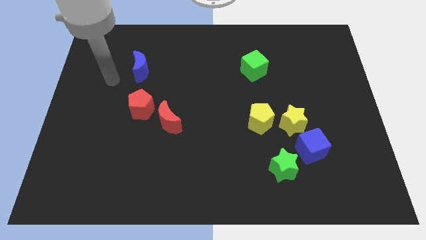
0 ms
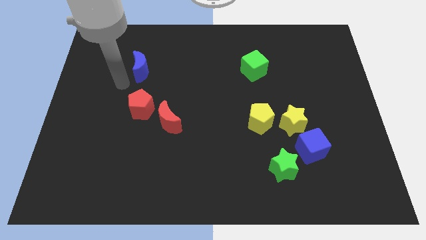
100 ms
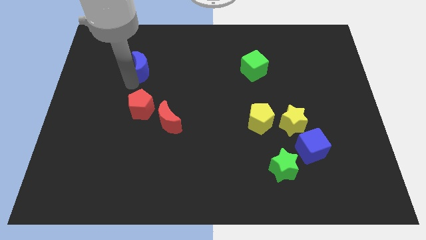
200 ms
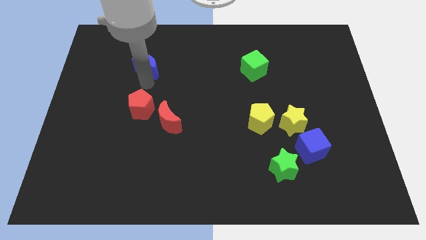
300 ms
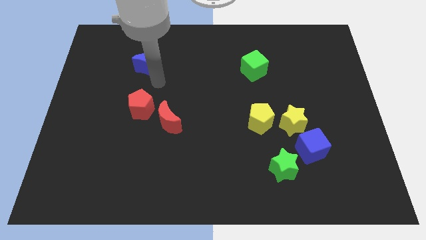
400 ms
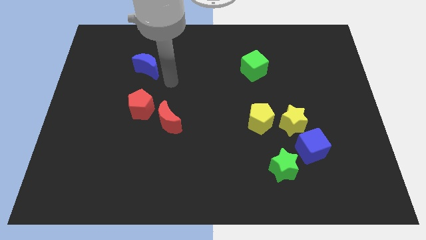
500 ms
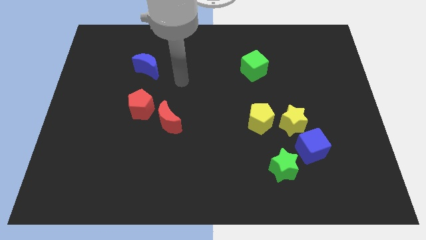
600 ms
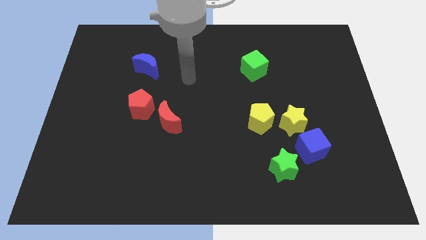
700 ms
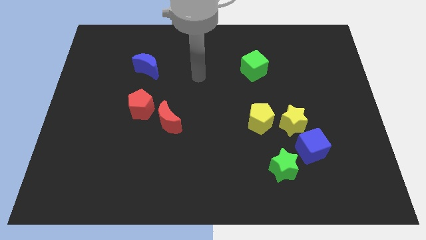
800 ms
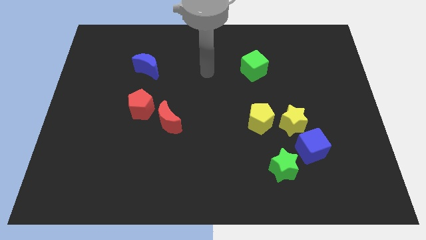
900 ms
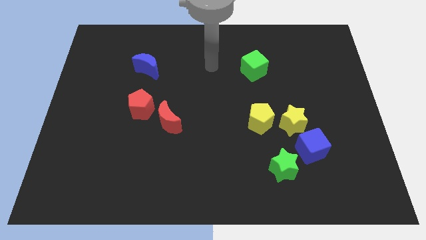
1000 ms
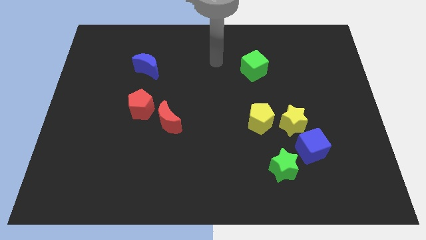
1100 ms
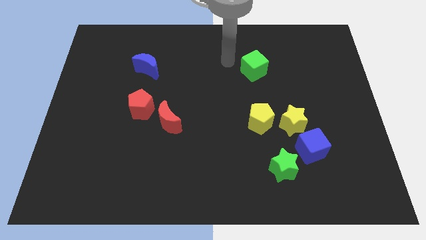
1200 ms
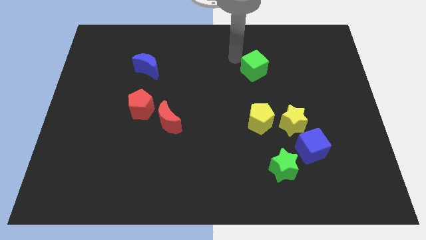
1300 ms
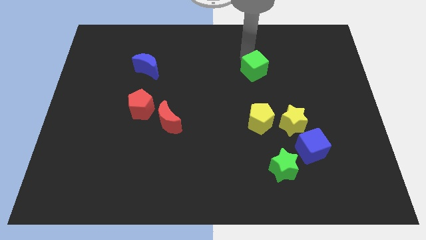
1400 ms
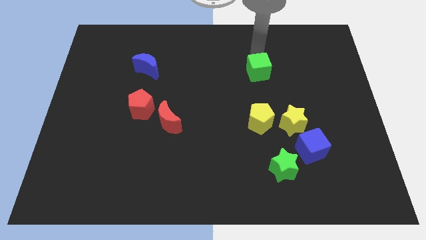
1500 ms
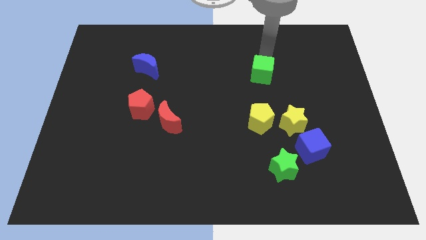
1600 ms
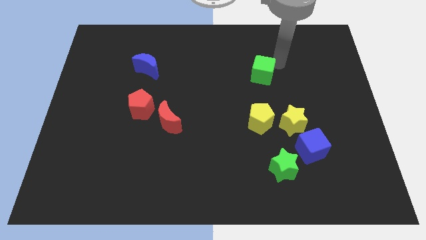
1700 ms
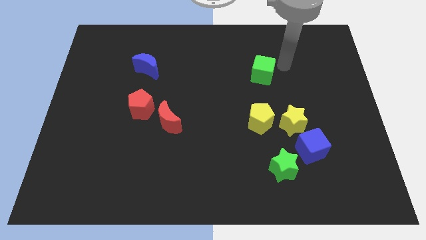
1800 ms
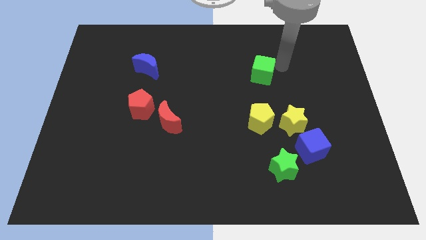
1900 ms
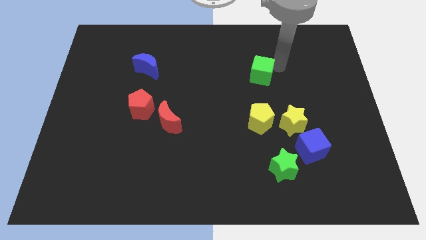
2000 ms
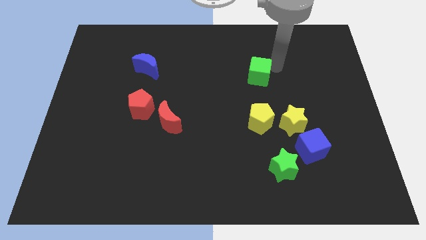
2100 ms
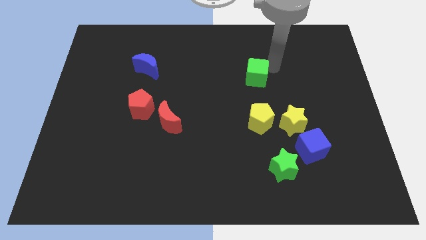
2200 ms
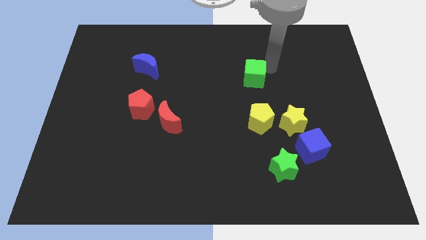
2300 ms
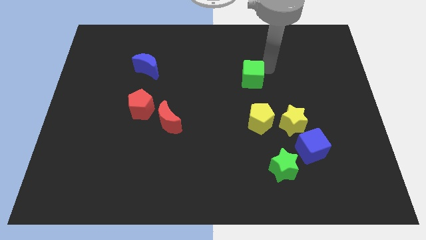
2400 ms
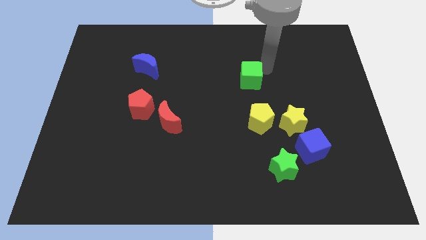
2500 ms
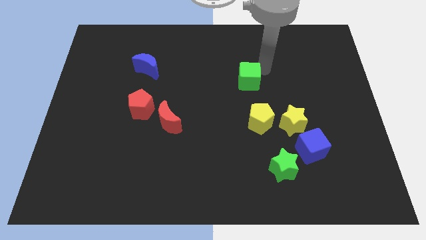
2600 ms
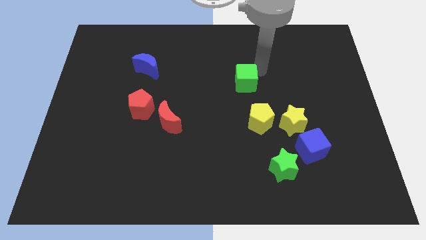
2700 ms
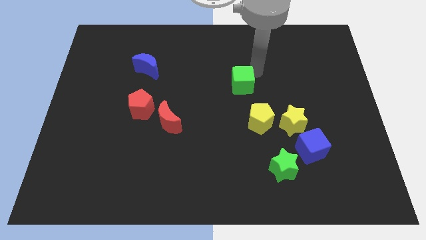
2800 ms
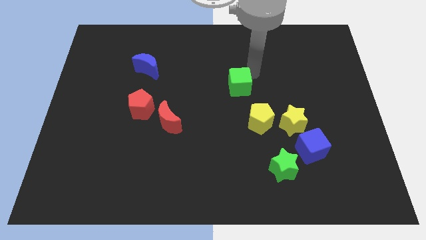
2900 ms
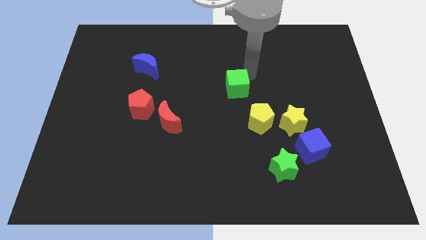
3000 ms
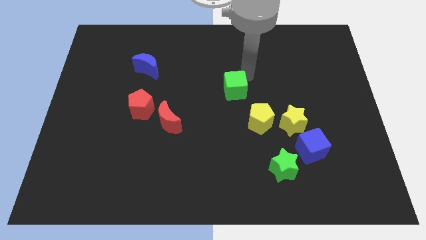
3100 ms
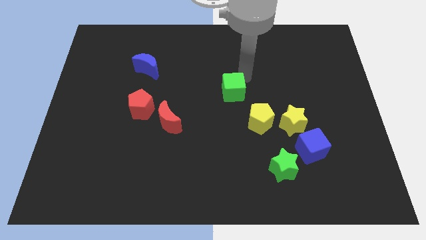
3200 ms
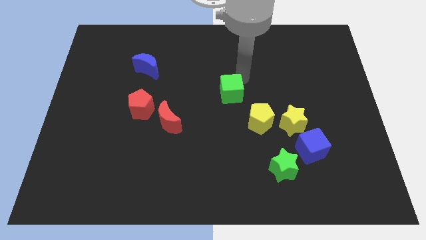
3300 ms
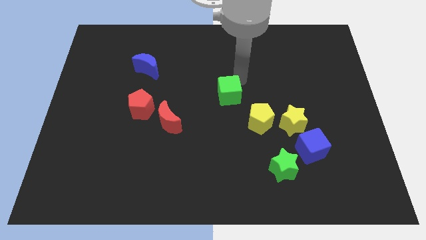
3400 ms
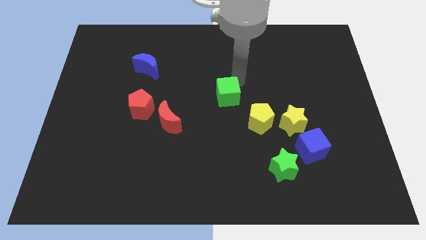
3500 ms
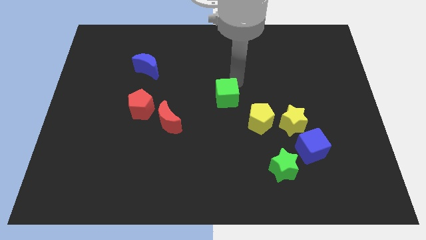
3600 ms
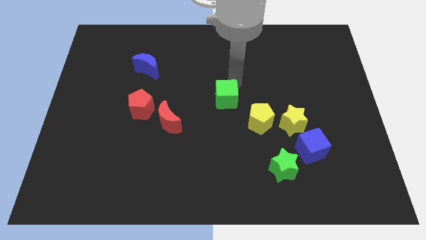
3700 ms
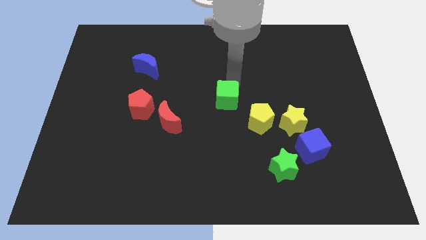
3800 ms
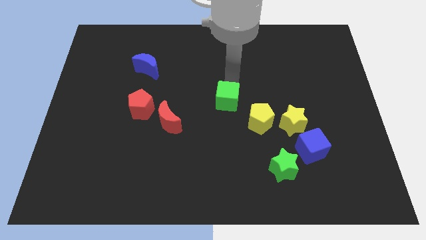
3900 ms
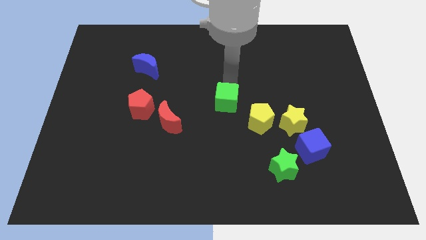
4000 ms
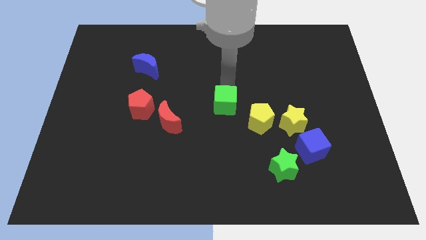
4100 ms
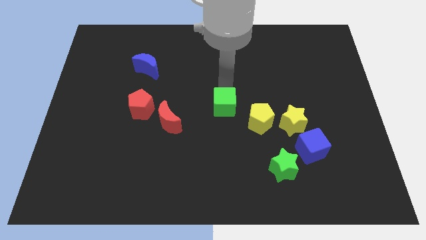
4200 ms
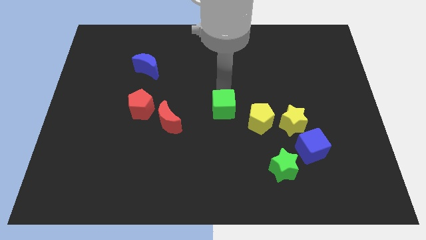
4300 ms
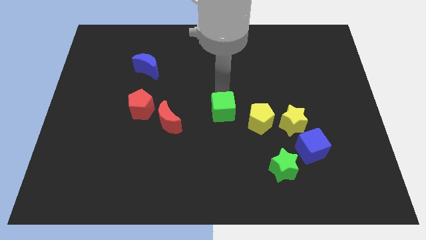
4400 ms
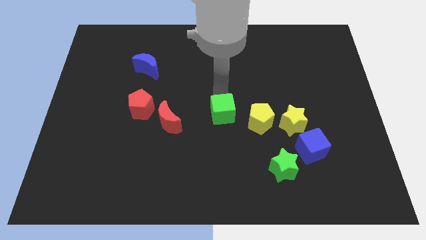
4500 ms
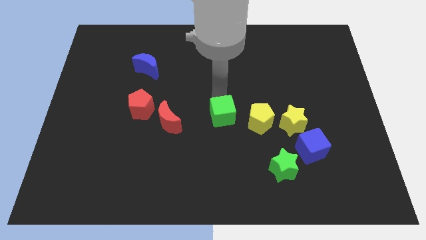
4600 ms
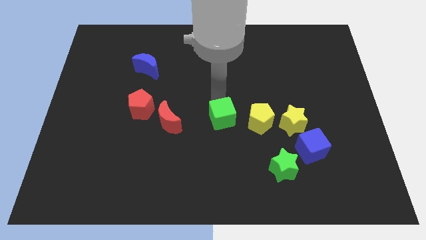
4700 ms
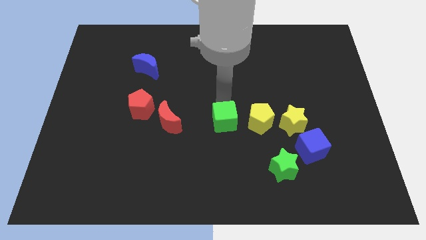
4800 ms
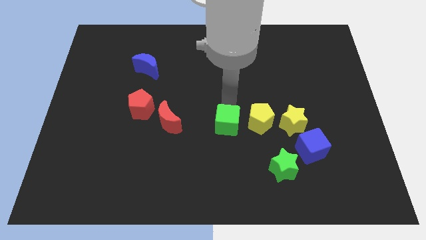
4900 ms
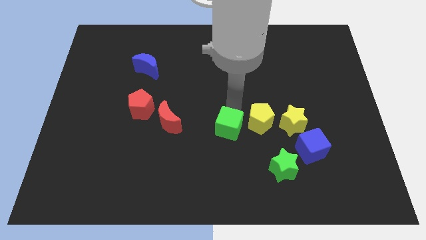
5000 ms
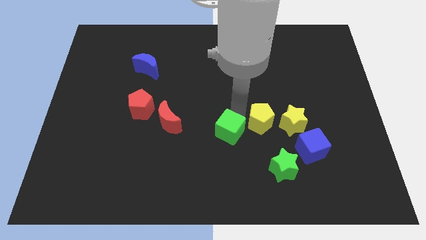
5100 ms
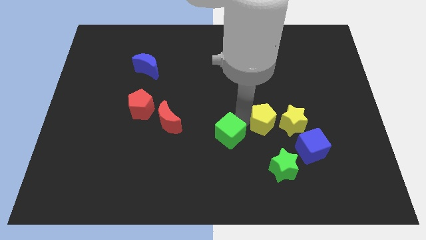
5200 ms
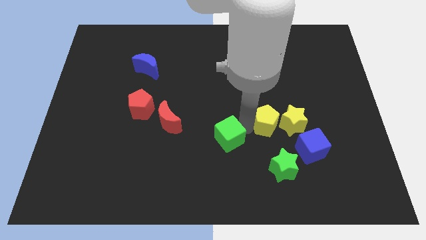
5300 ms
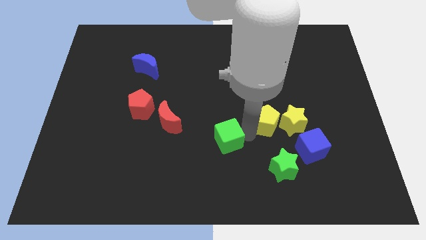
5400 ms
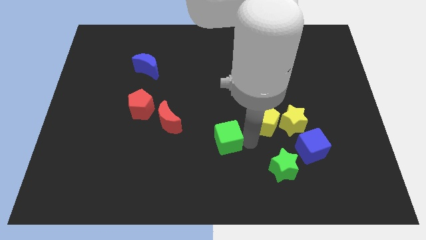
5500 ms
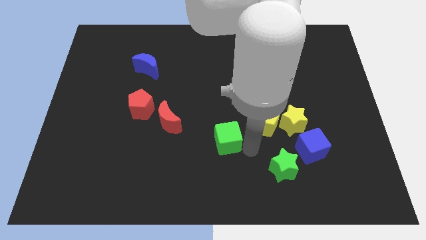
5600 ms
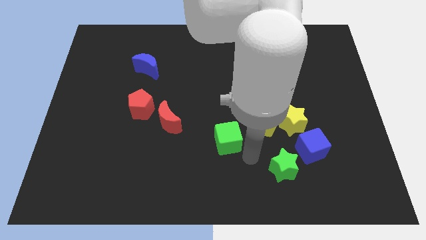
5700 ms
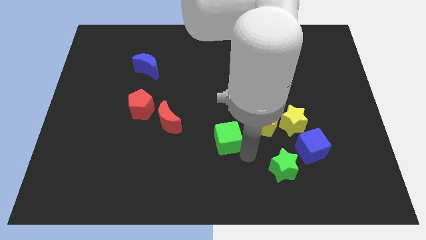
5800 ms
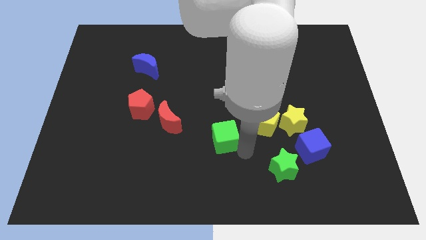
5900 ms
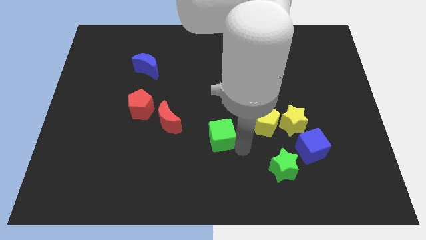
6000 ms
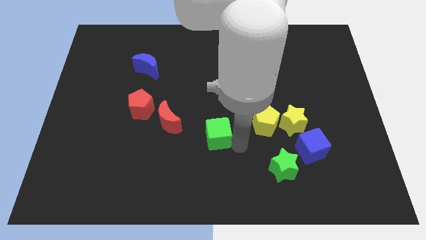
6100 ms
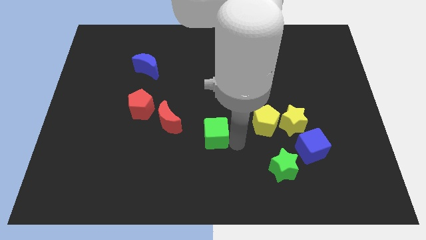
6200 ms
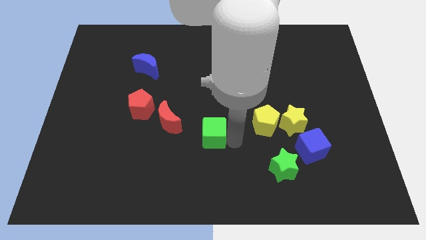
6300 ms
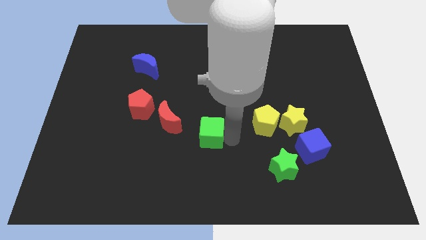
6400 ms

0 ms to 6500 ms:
move the green cube downwards and to the left diagonally

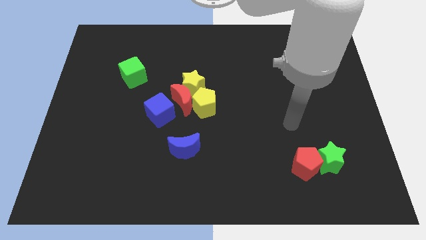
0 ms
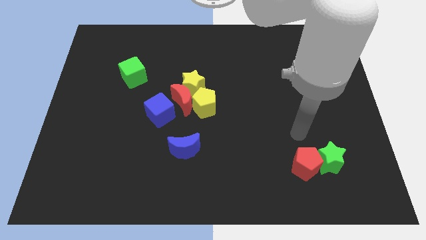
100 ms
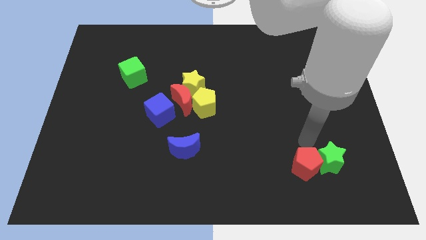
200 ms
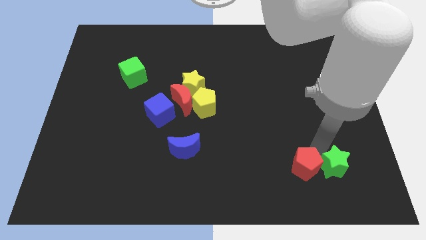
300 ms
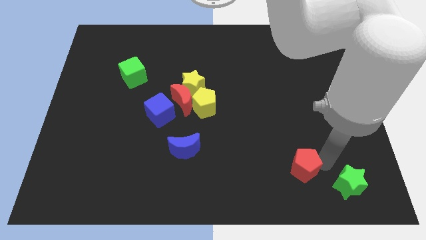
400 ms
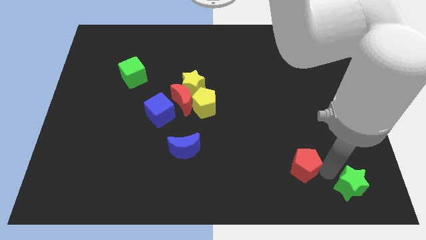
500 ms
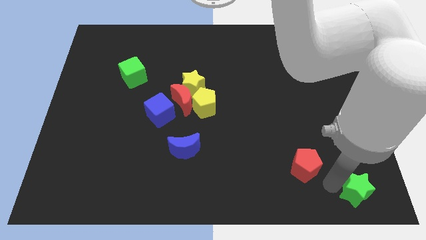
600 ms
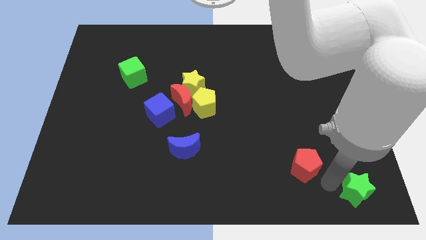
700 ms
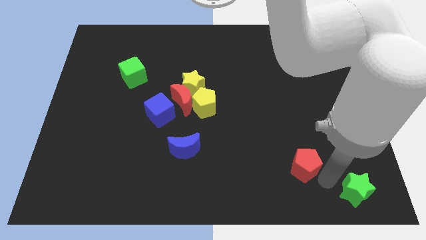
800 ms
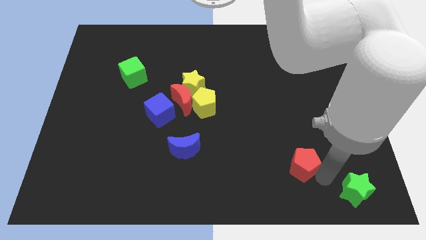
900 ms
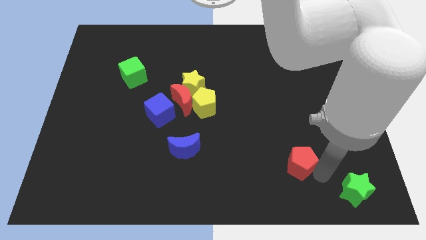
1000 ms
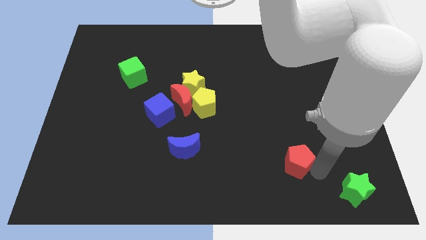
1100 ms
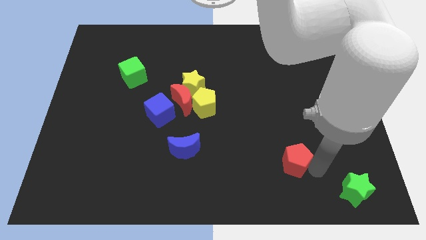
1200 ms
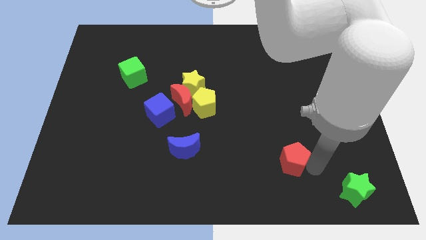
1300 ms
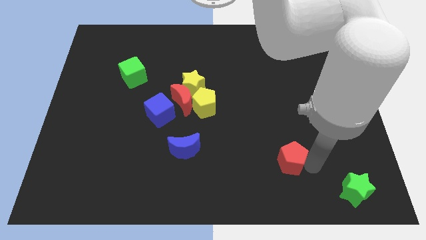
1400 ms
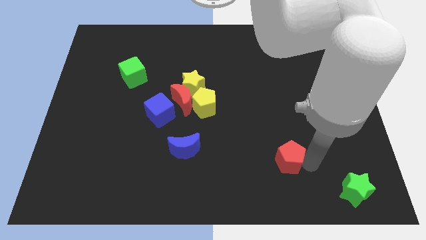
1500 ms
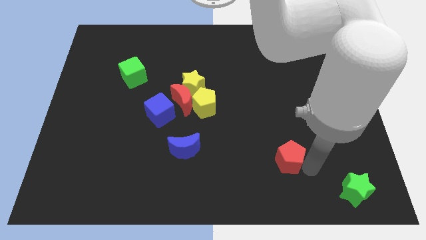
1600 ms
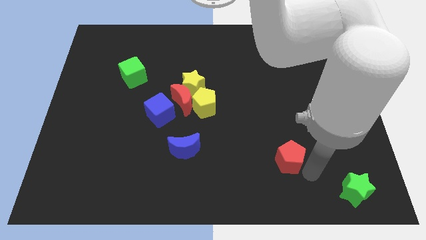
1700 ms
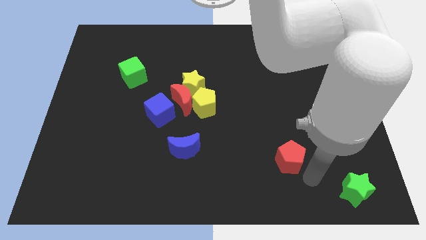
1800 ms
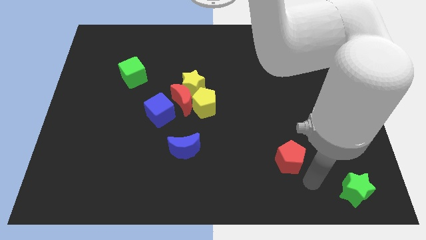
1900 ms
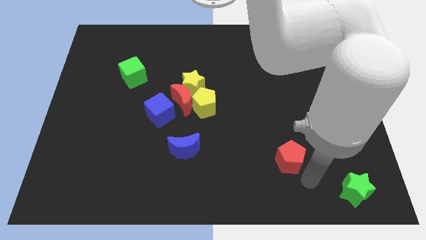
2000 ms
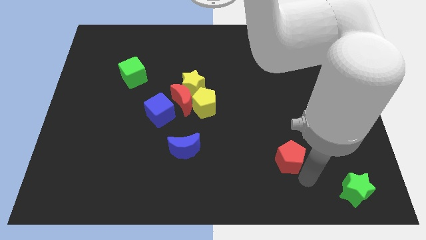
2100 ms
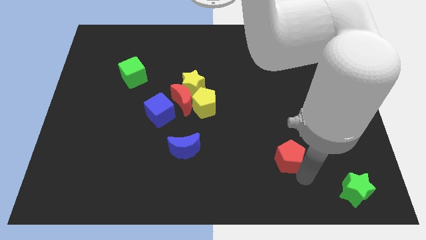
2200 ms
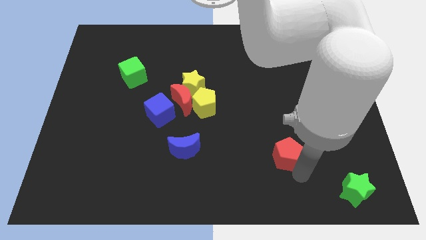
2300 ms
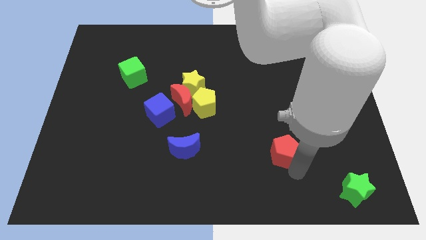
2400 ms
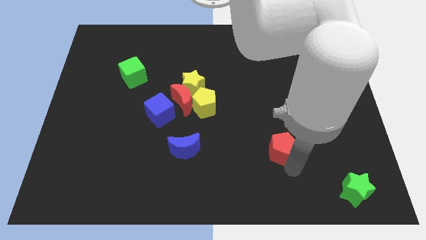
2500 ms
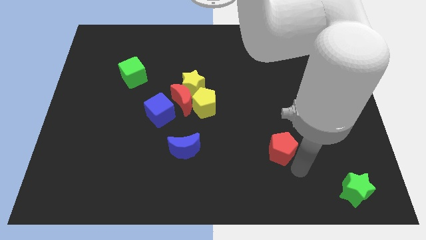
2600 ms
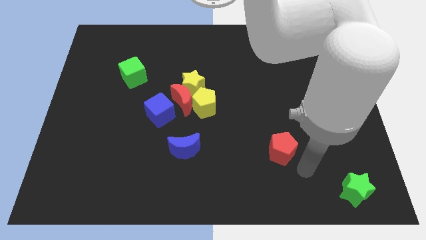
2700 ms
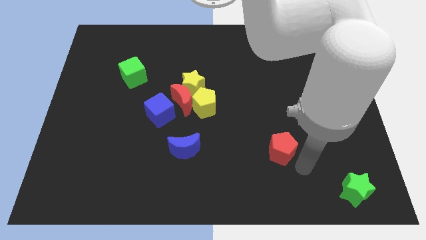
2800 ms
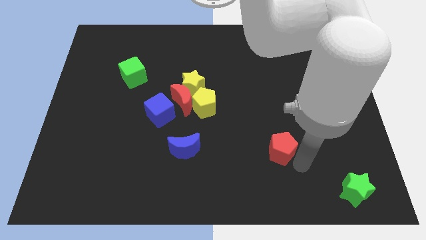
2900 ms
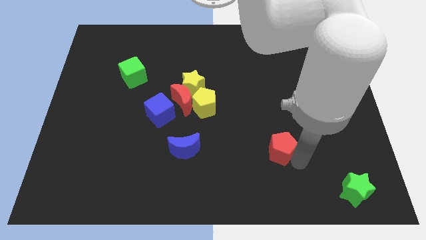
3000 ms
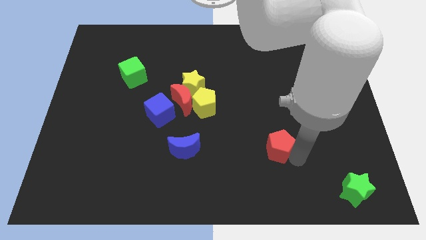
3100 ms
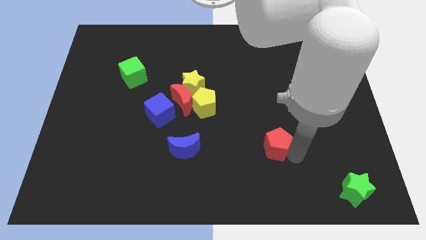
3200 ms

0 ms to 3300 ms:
push the red pentagon a little upwards and left diagonally
